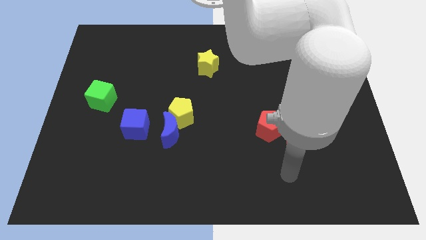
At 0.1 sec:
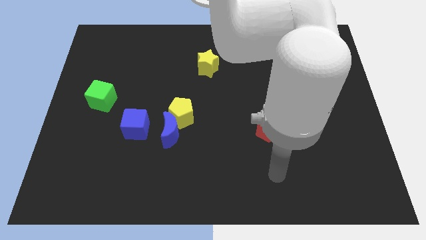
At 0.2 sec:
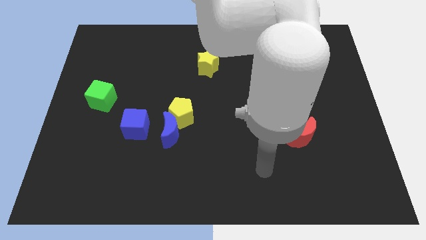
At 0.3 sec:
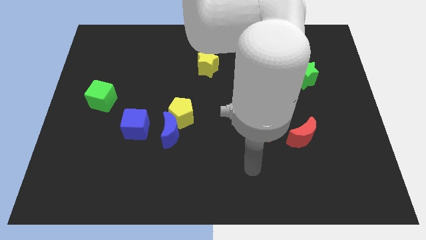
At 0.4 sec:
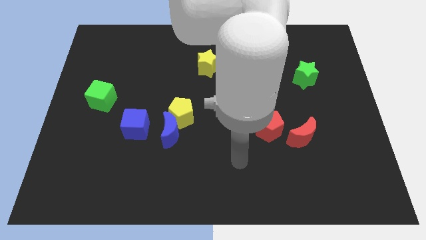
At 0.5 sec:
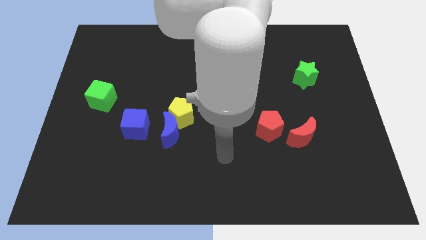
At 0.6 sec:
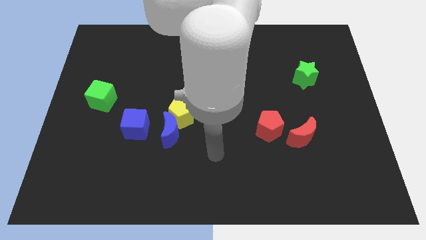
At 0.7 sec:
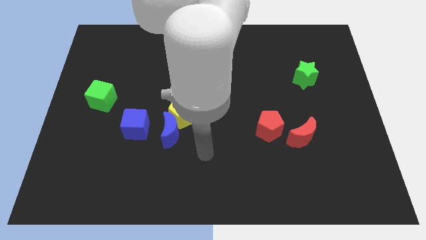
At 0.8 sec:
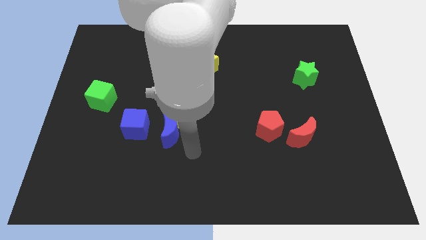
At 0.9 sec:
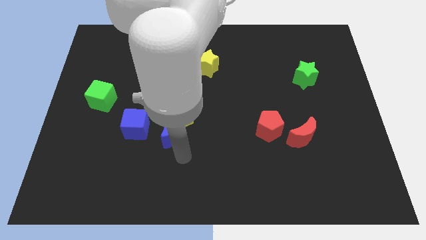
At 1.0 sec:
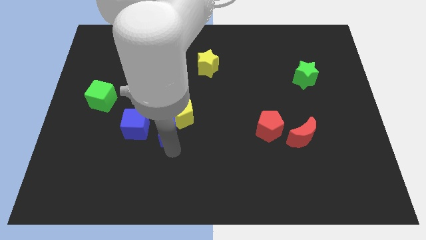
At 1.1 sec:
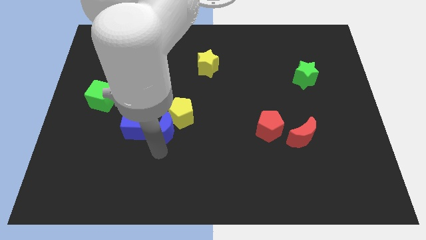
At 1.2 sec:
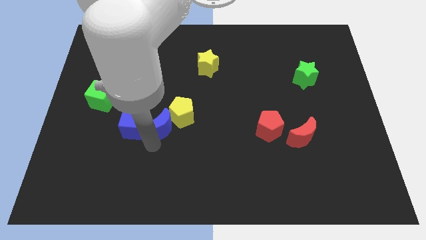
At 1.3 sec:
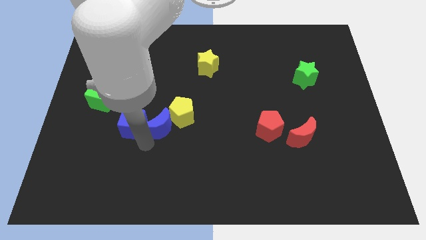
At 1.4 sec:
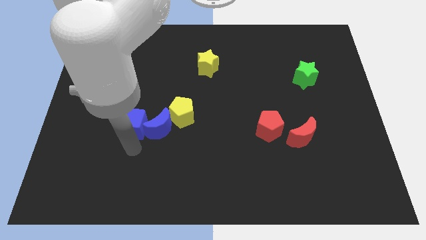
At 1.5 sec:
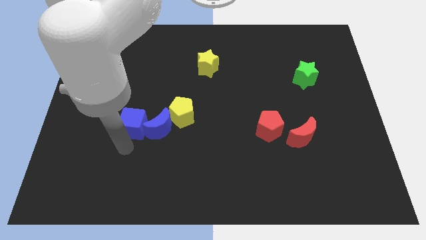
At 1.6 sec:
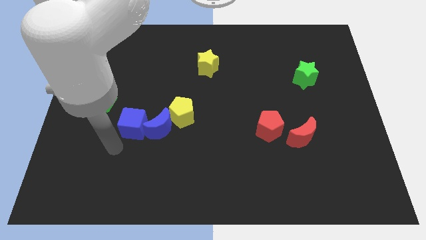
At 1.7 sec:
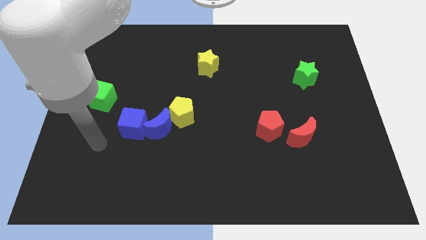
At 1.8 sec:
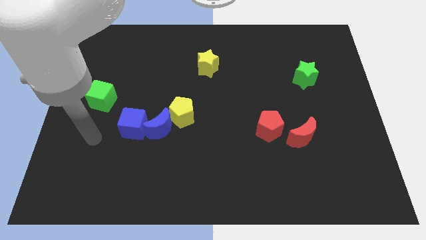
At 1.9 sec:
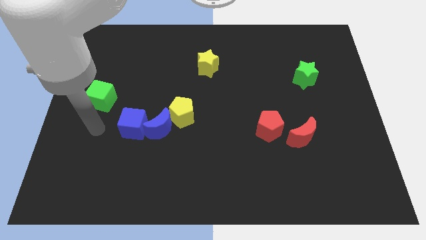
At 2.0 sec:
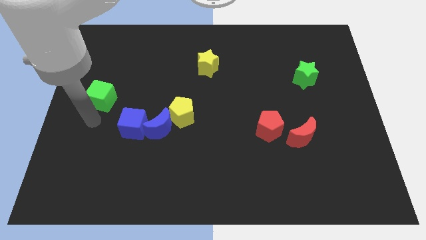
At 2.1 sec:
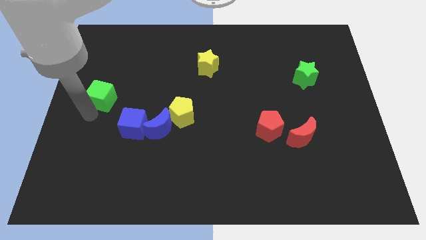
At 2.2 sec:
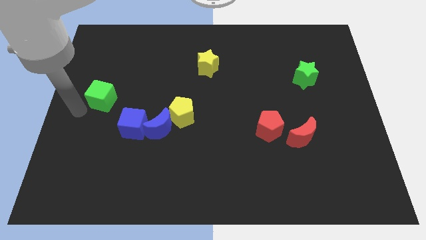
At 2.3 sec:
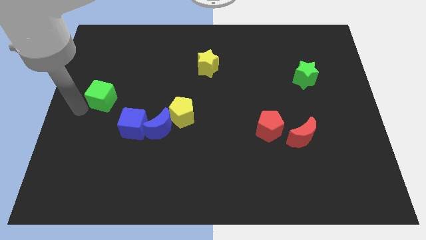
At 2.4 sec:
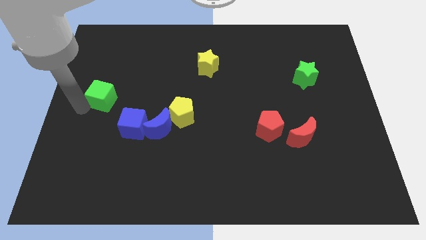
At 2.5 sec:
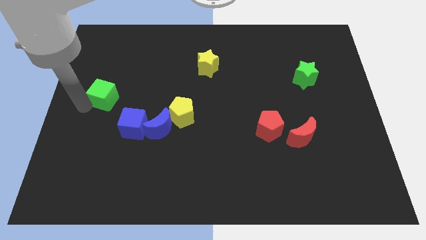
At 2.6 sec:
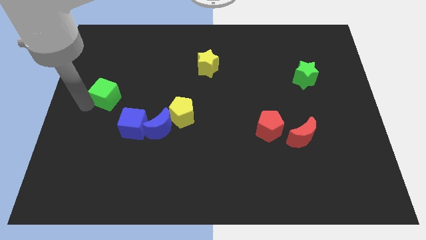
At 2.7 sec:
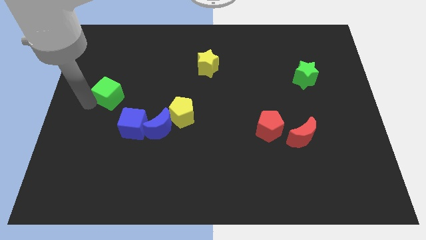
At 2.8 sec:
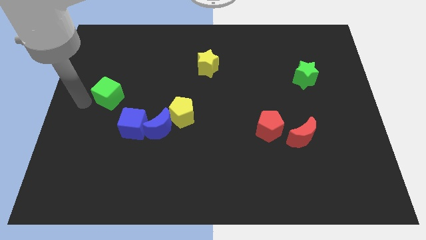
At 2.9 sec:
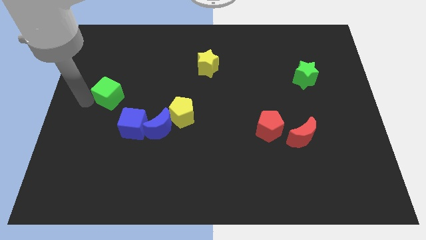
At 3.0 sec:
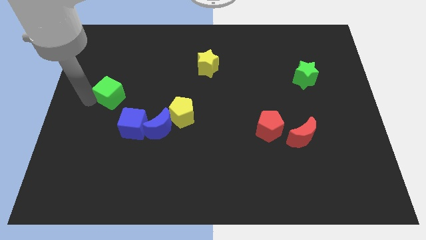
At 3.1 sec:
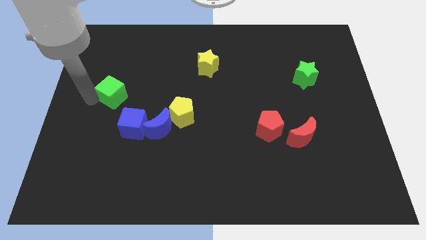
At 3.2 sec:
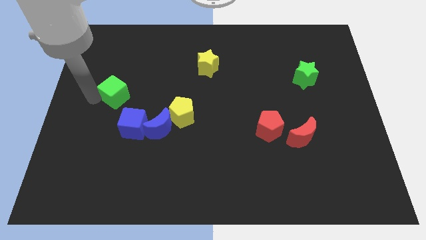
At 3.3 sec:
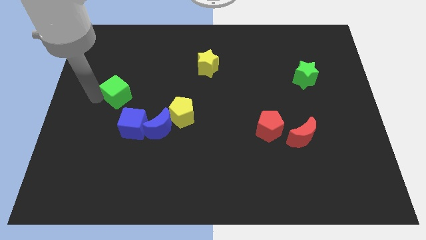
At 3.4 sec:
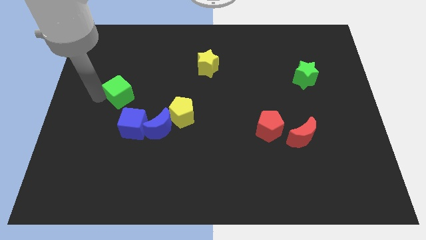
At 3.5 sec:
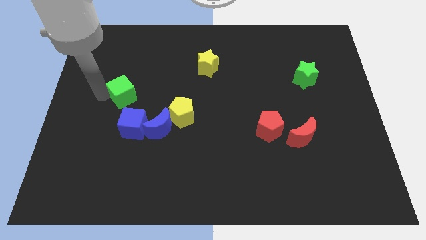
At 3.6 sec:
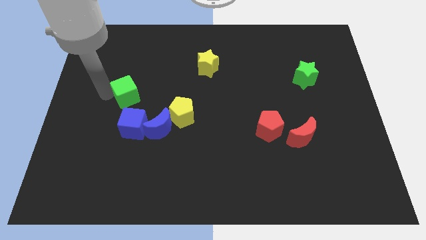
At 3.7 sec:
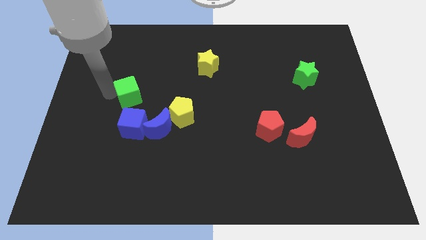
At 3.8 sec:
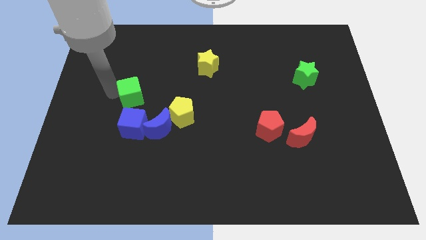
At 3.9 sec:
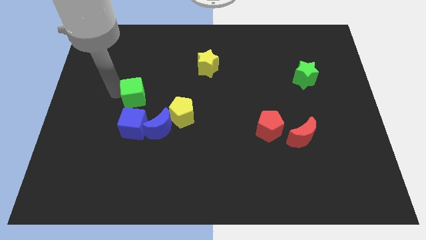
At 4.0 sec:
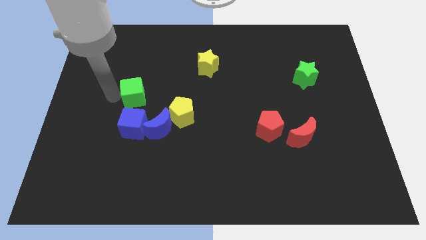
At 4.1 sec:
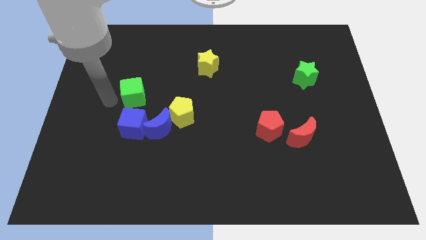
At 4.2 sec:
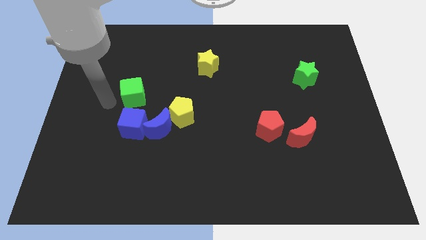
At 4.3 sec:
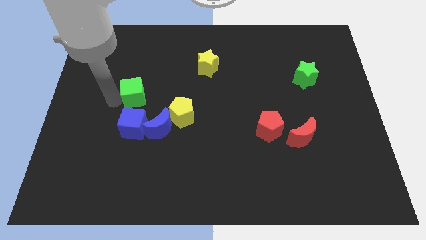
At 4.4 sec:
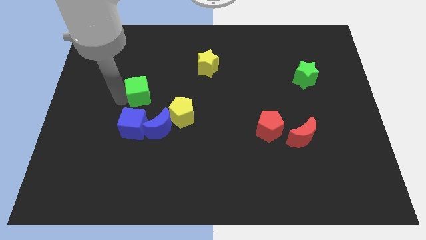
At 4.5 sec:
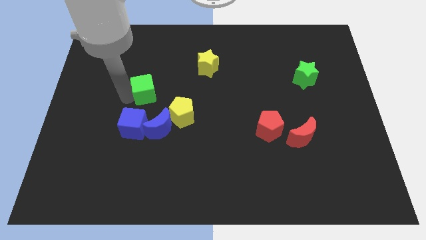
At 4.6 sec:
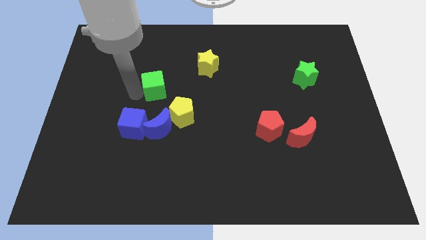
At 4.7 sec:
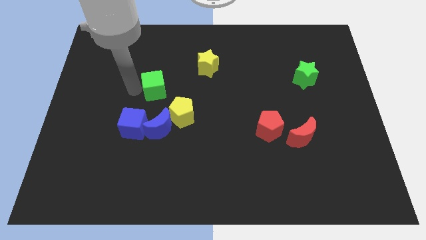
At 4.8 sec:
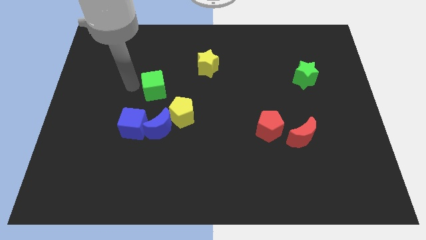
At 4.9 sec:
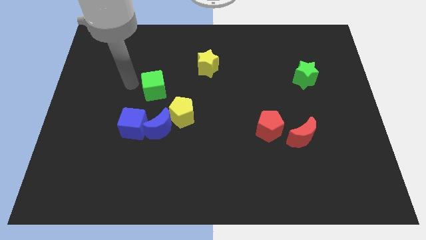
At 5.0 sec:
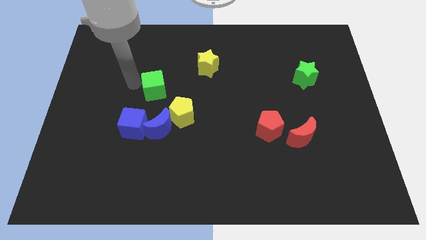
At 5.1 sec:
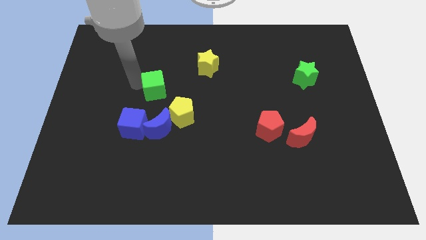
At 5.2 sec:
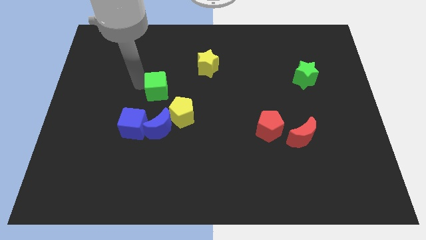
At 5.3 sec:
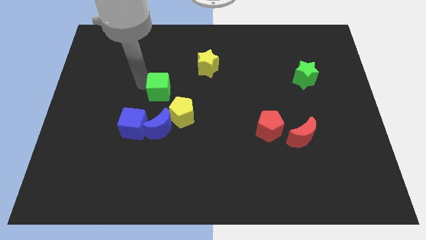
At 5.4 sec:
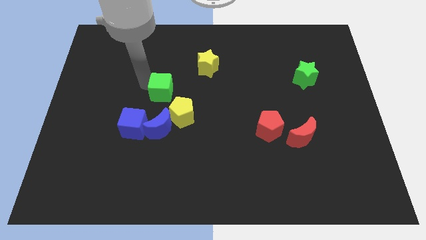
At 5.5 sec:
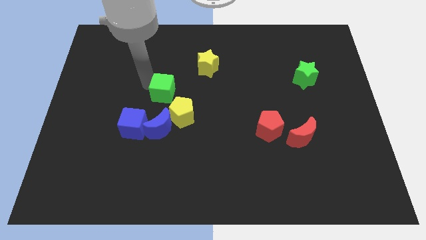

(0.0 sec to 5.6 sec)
push the green cube to the center of the board
